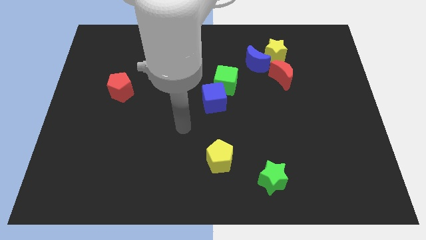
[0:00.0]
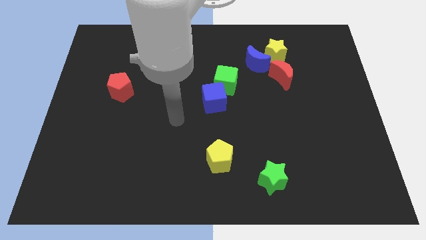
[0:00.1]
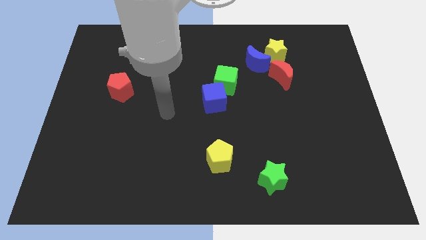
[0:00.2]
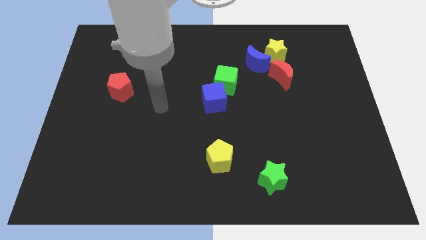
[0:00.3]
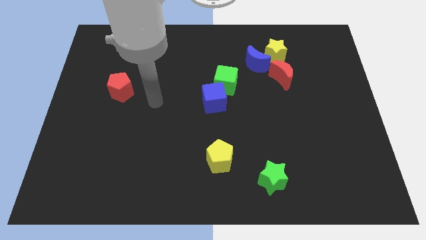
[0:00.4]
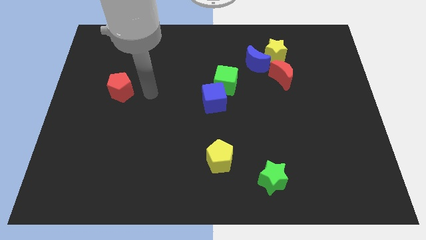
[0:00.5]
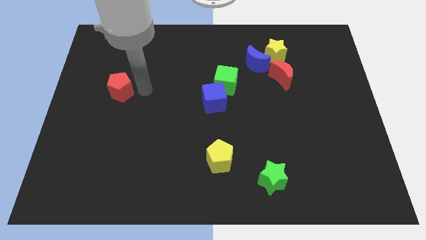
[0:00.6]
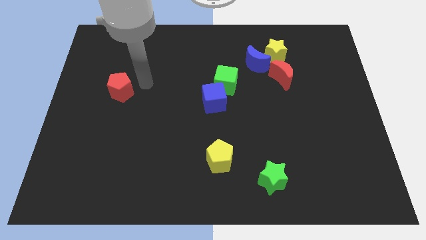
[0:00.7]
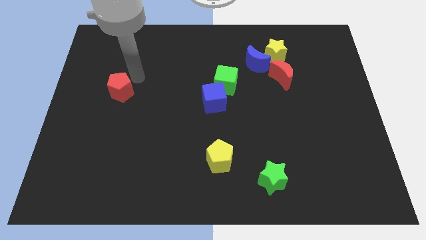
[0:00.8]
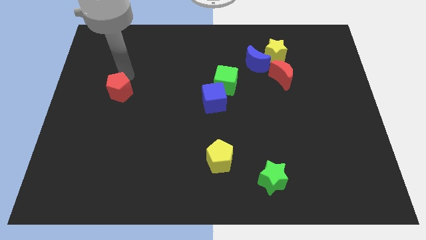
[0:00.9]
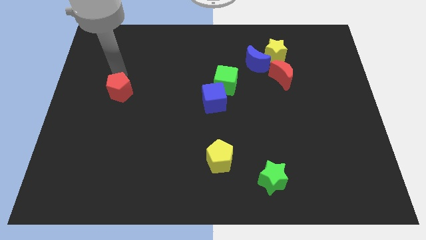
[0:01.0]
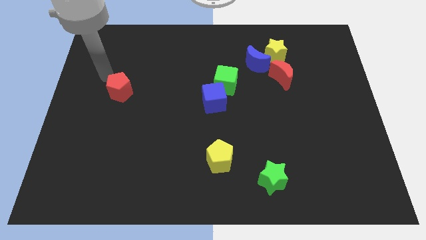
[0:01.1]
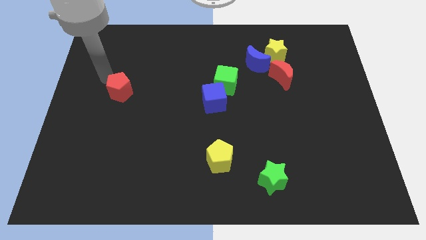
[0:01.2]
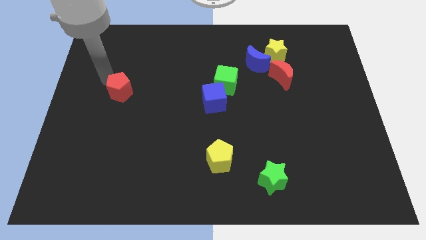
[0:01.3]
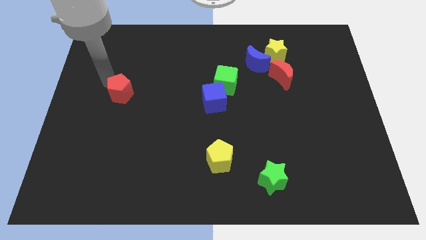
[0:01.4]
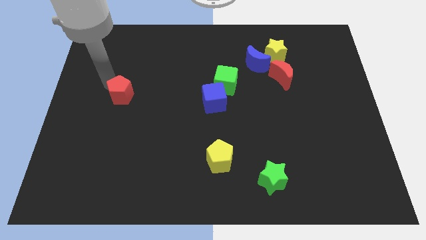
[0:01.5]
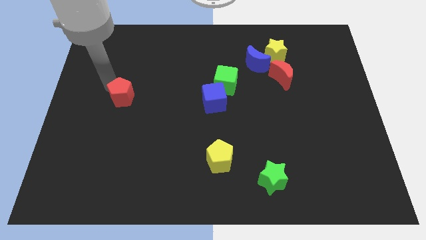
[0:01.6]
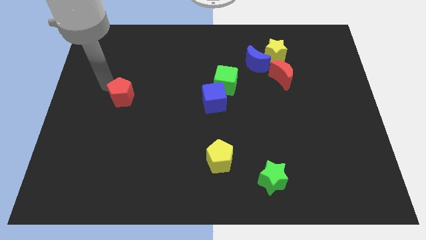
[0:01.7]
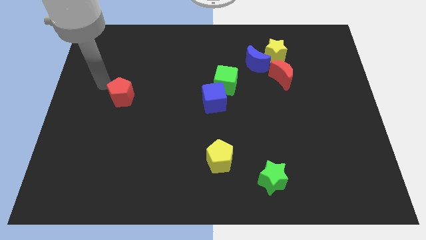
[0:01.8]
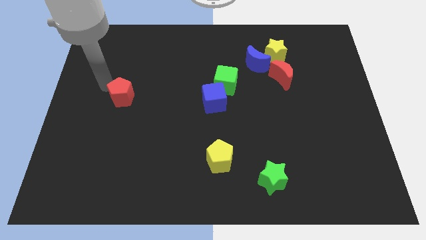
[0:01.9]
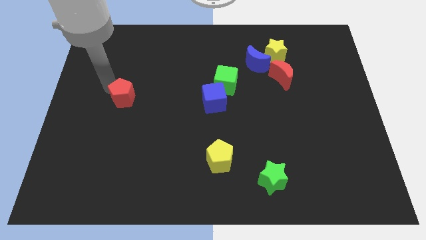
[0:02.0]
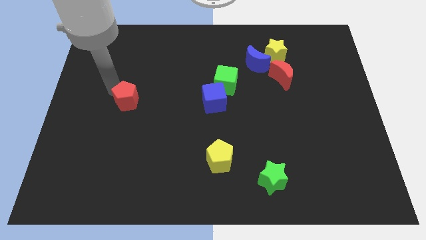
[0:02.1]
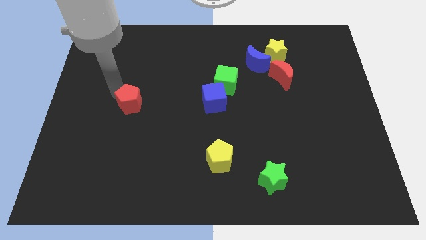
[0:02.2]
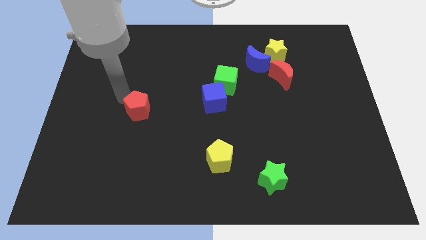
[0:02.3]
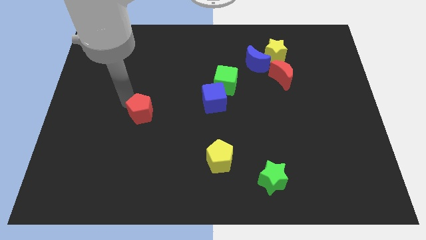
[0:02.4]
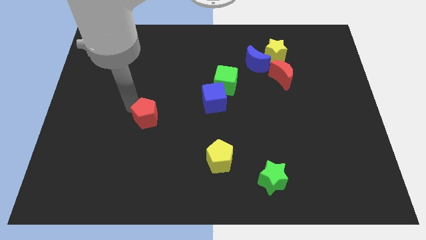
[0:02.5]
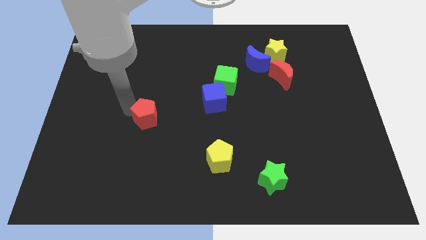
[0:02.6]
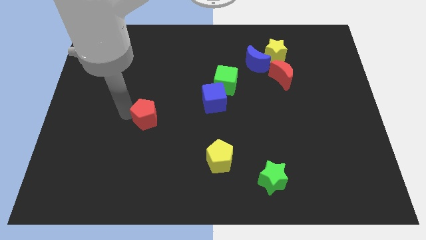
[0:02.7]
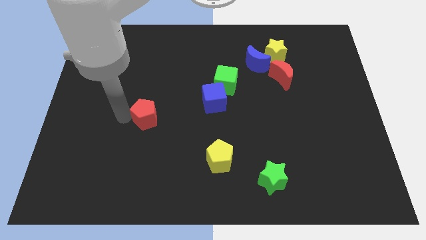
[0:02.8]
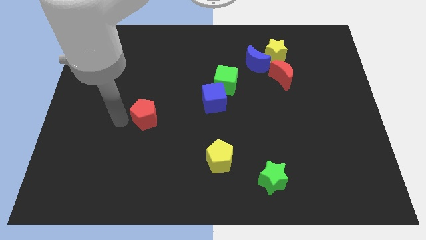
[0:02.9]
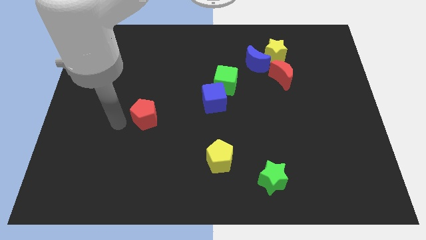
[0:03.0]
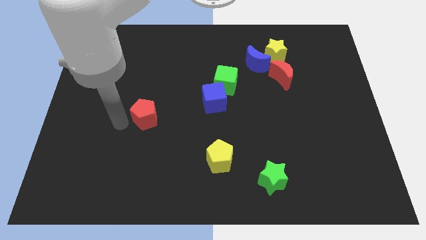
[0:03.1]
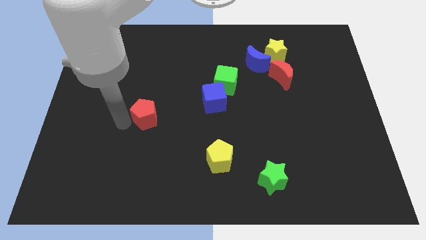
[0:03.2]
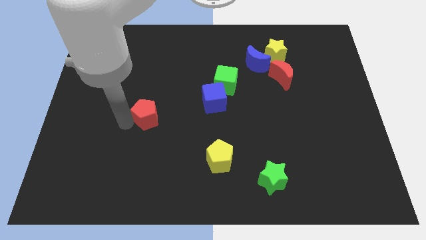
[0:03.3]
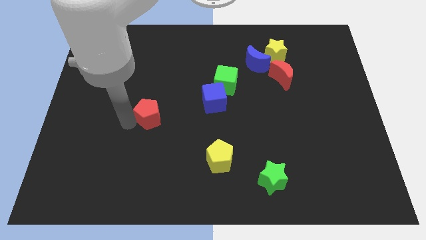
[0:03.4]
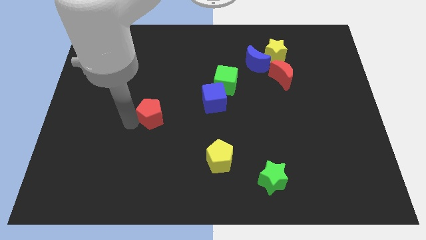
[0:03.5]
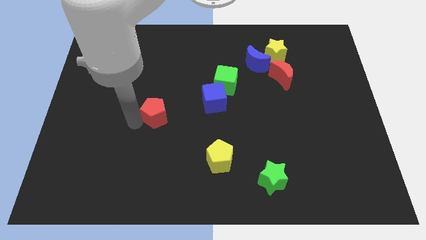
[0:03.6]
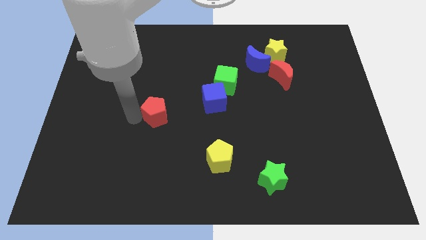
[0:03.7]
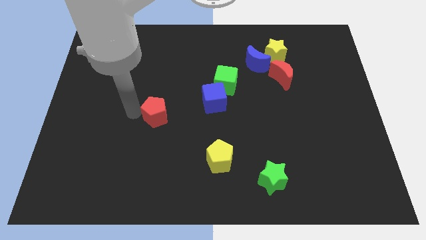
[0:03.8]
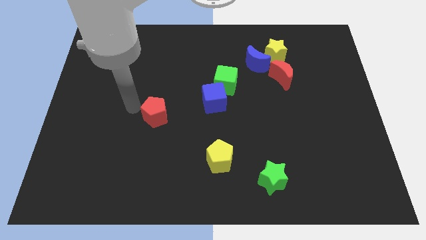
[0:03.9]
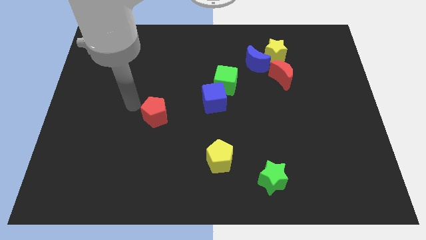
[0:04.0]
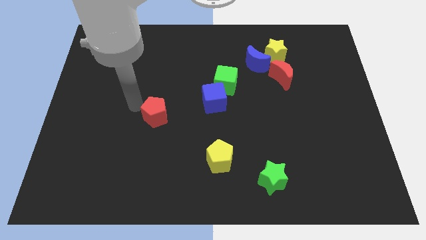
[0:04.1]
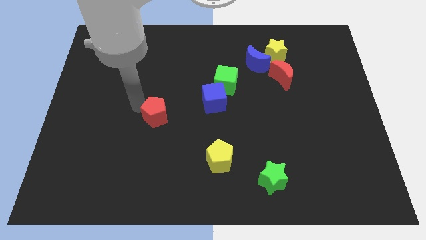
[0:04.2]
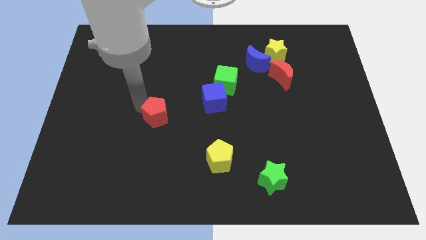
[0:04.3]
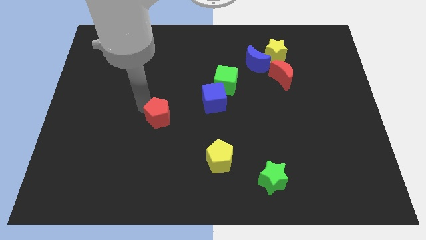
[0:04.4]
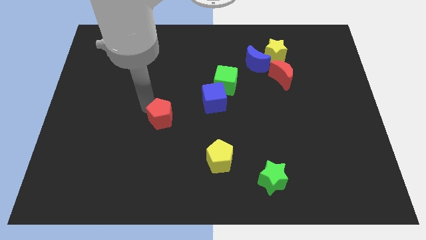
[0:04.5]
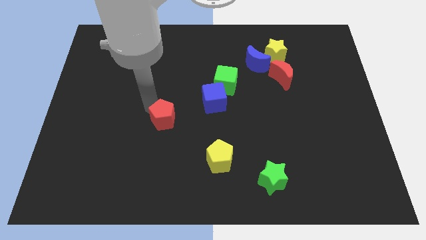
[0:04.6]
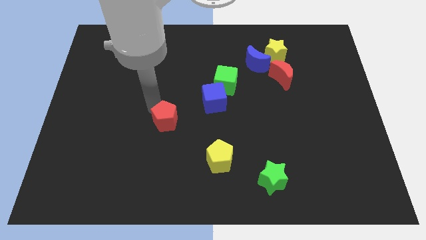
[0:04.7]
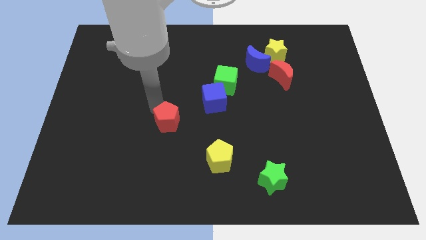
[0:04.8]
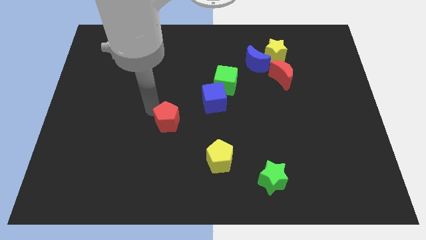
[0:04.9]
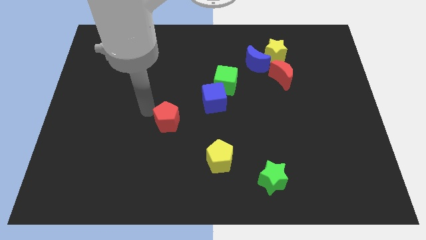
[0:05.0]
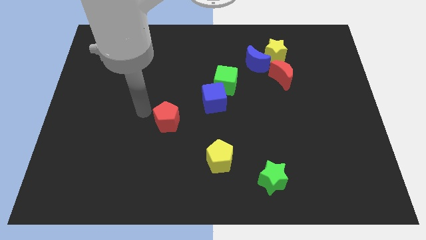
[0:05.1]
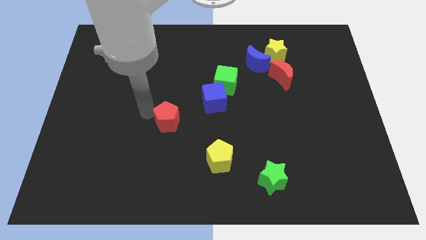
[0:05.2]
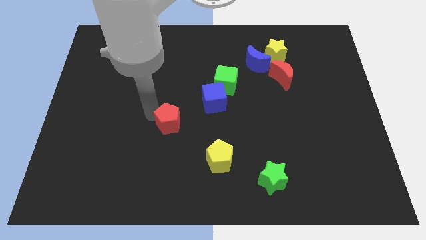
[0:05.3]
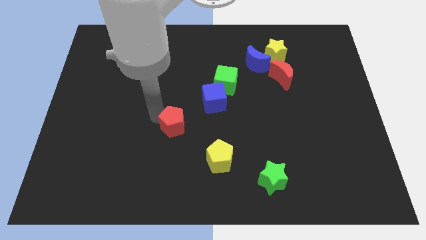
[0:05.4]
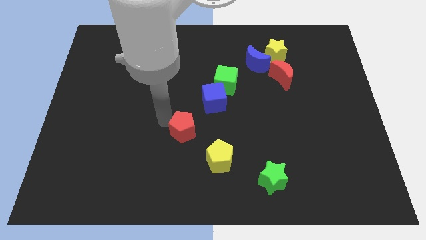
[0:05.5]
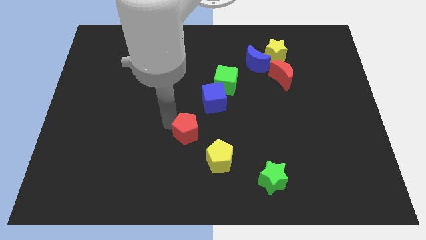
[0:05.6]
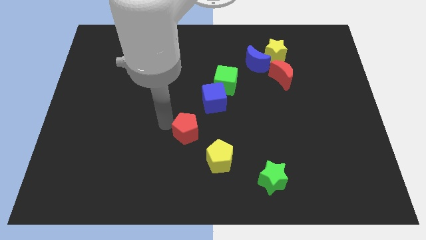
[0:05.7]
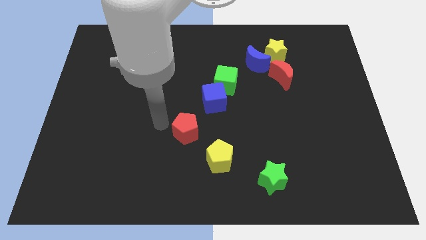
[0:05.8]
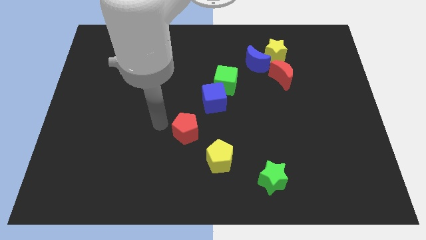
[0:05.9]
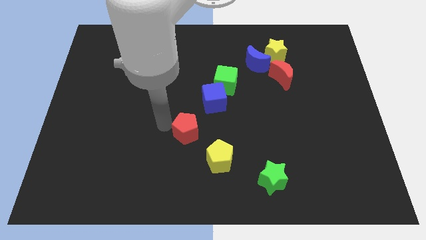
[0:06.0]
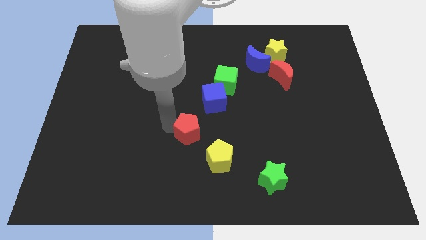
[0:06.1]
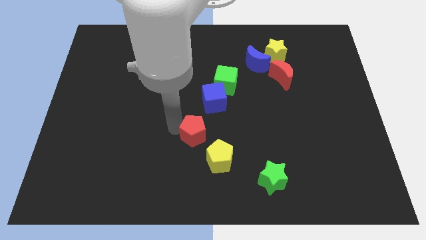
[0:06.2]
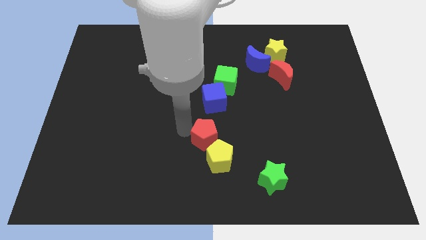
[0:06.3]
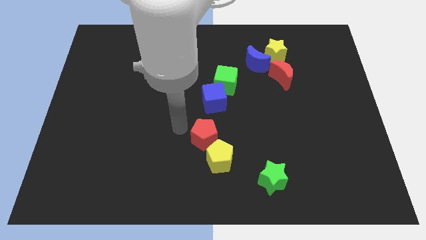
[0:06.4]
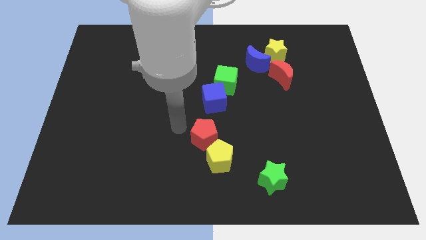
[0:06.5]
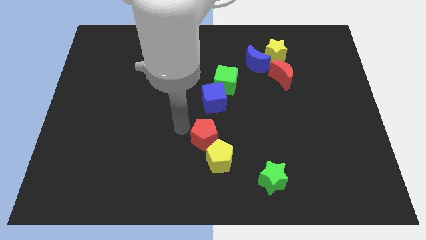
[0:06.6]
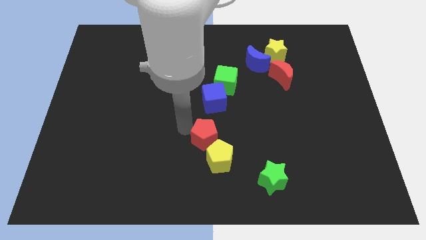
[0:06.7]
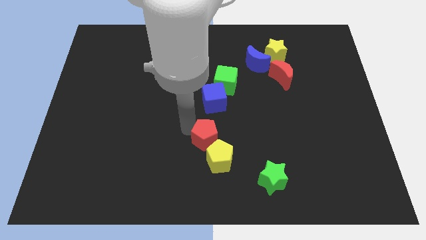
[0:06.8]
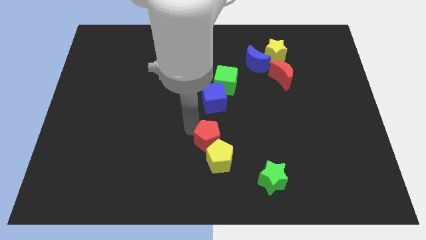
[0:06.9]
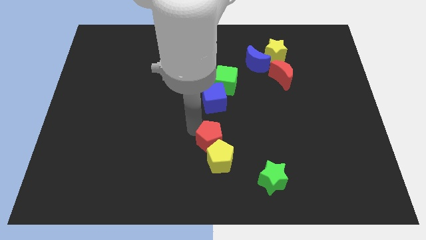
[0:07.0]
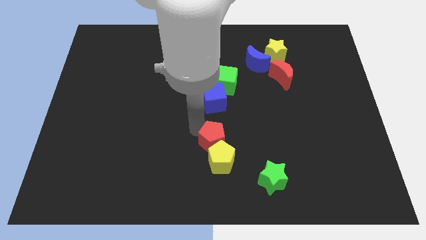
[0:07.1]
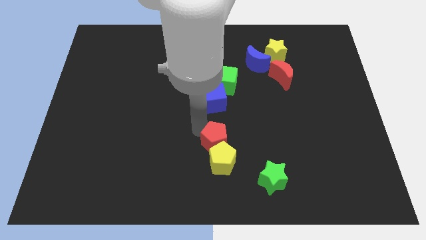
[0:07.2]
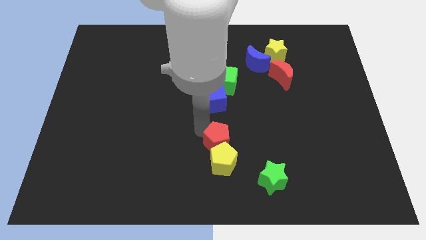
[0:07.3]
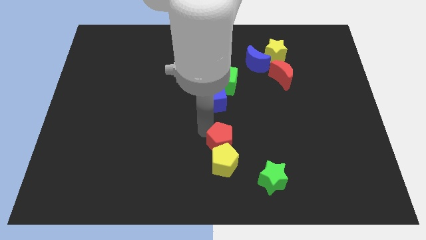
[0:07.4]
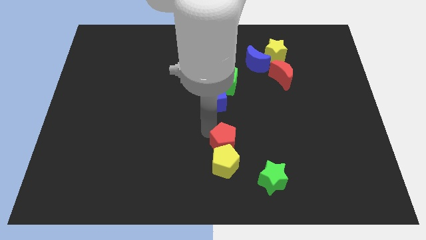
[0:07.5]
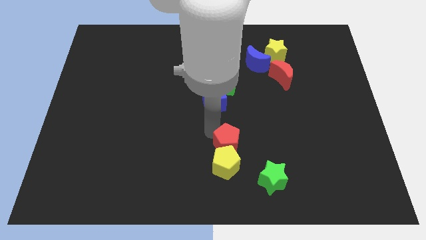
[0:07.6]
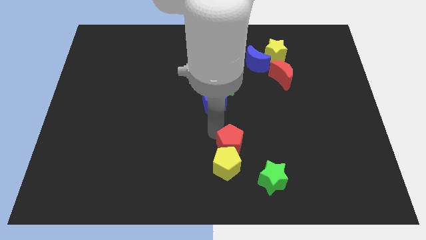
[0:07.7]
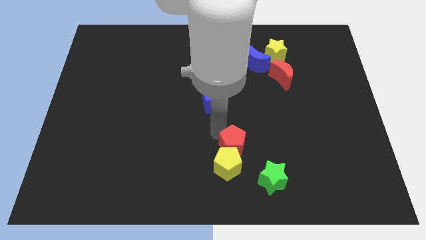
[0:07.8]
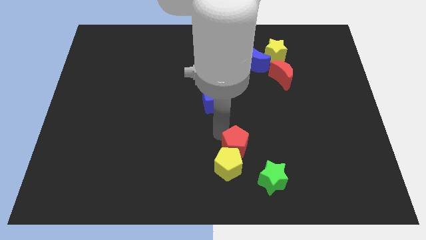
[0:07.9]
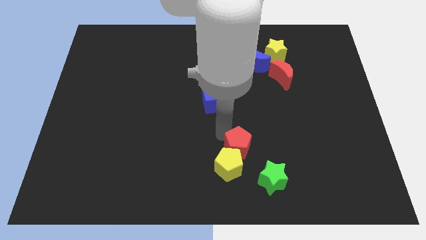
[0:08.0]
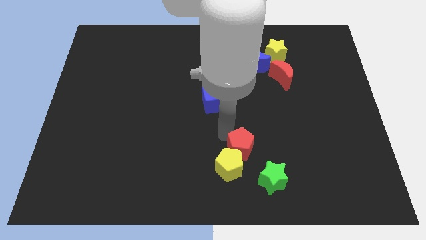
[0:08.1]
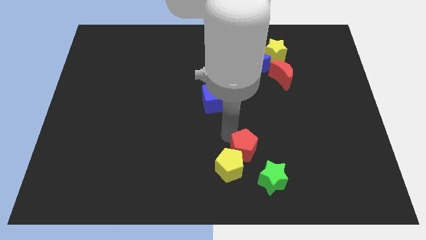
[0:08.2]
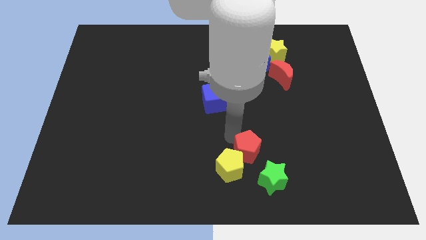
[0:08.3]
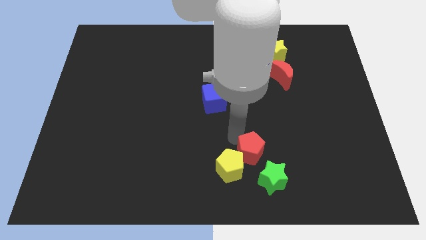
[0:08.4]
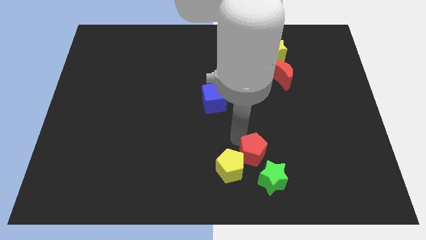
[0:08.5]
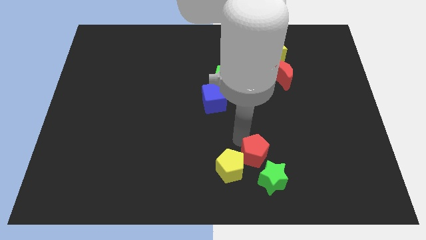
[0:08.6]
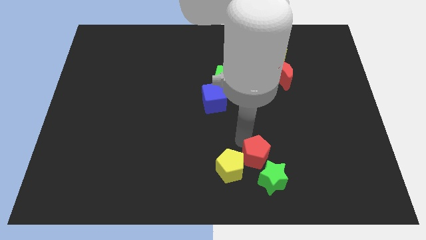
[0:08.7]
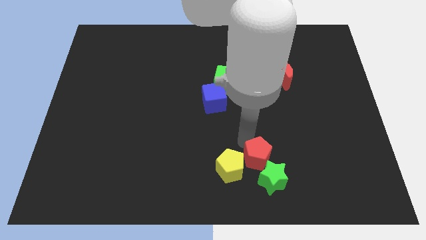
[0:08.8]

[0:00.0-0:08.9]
put the red pentagon next to the green star
